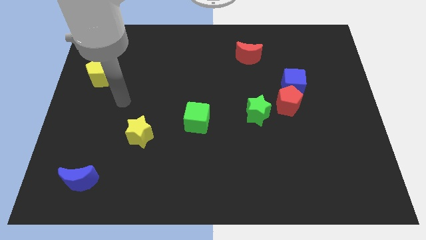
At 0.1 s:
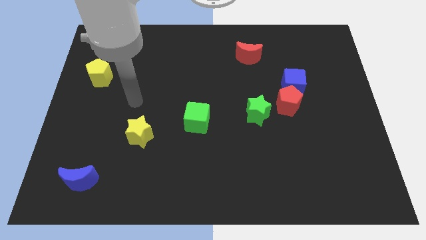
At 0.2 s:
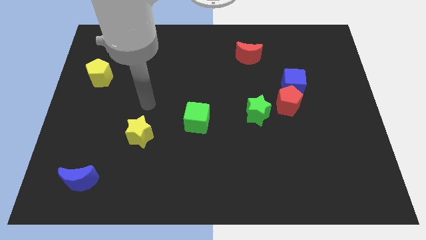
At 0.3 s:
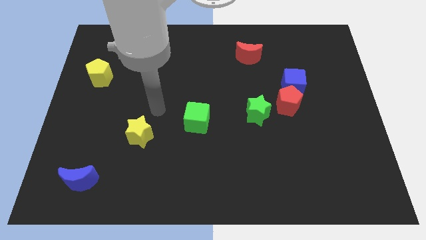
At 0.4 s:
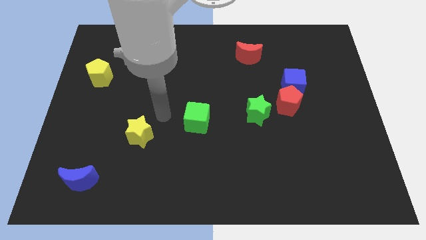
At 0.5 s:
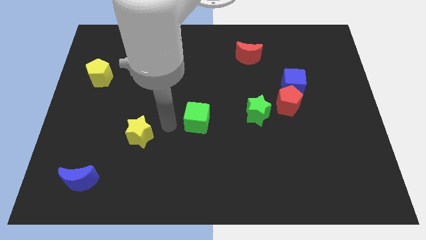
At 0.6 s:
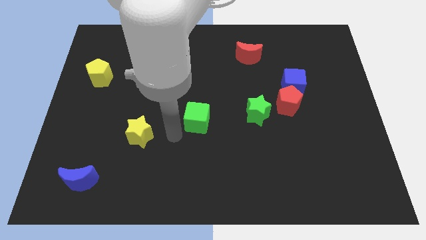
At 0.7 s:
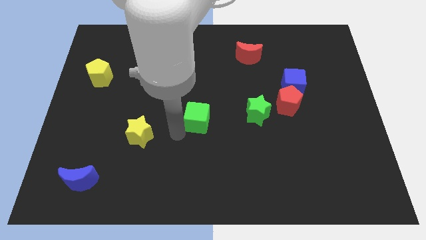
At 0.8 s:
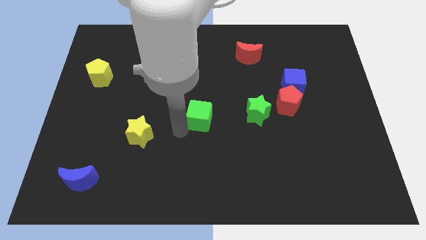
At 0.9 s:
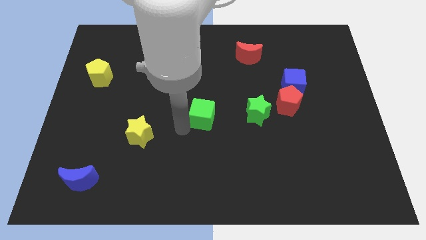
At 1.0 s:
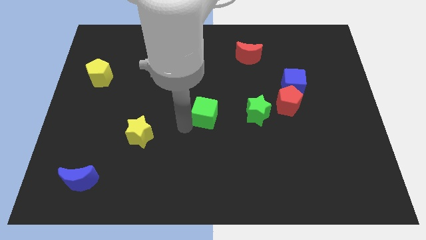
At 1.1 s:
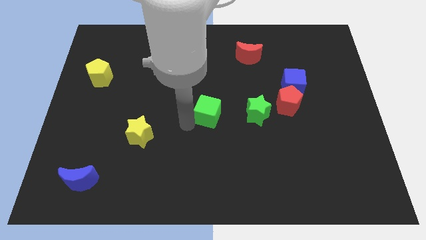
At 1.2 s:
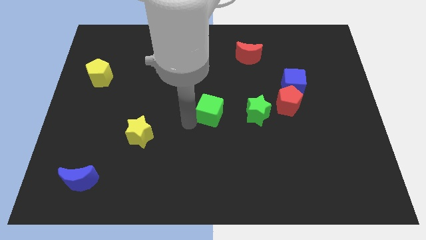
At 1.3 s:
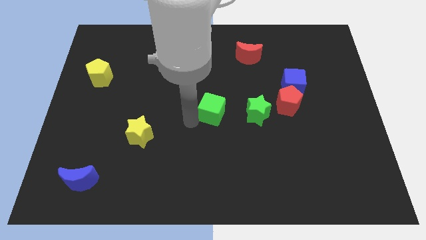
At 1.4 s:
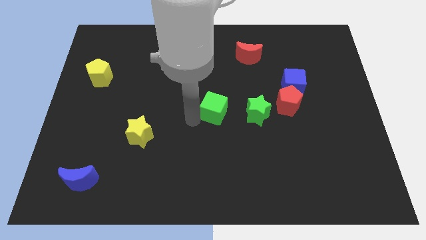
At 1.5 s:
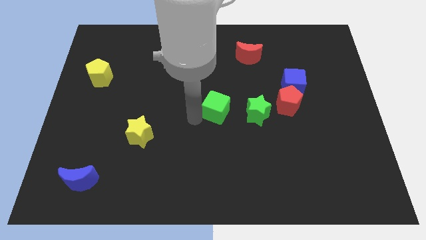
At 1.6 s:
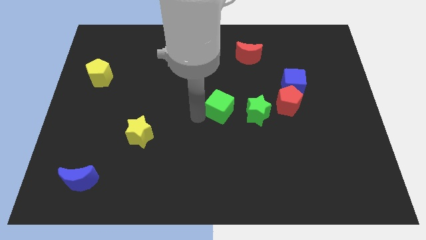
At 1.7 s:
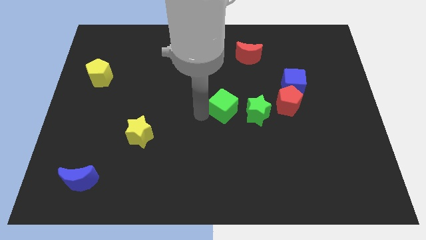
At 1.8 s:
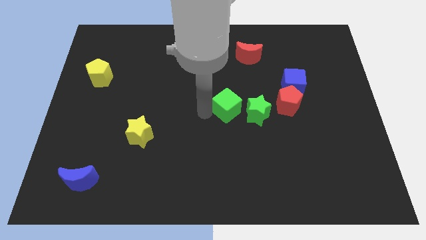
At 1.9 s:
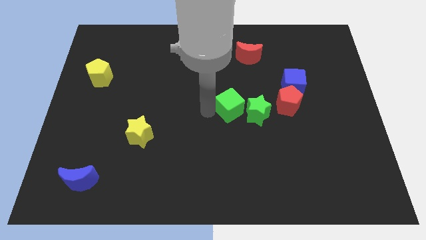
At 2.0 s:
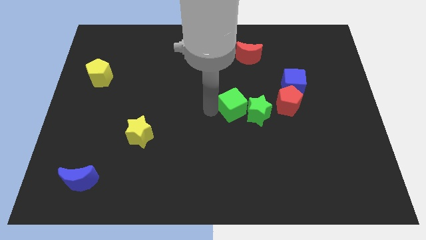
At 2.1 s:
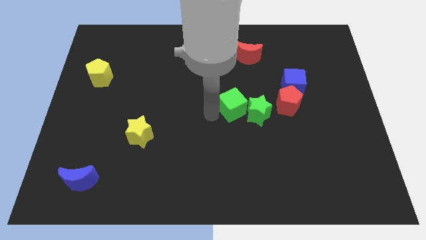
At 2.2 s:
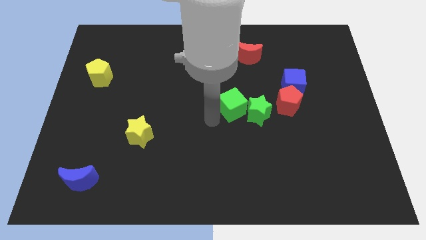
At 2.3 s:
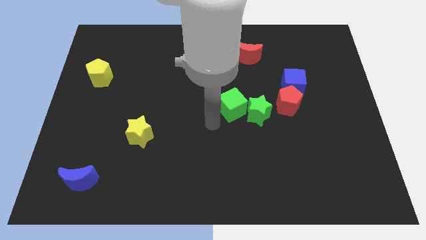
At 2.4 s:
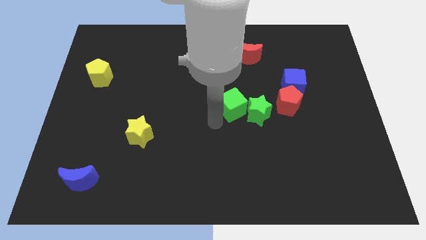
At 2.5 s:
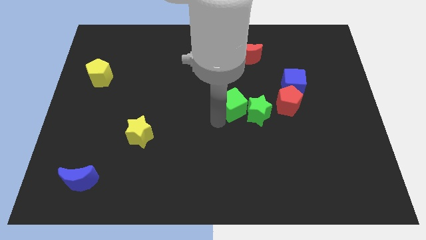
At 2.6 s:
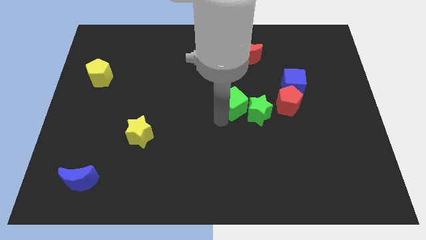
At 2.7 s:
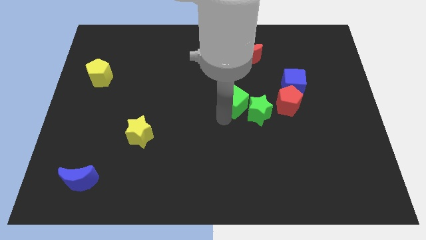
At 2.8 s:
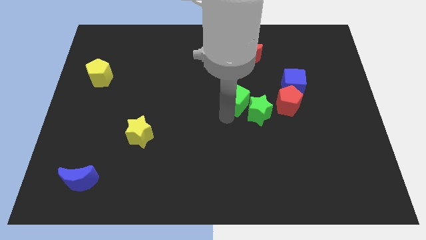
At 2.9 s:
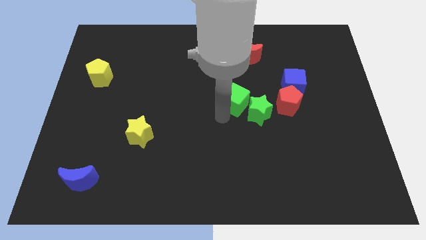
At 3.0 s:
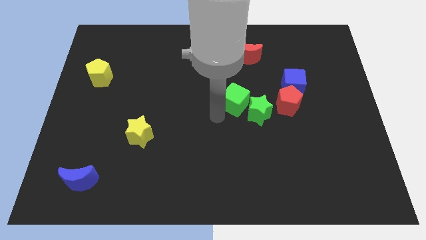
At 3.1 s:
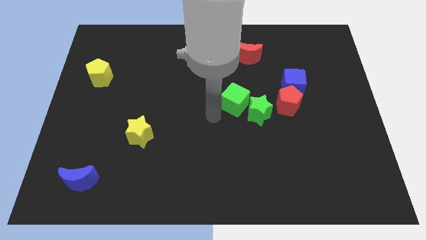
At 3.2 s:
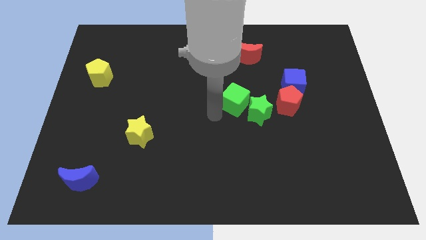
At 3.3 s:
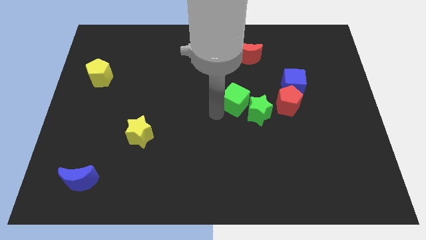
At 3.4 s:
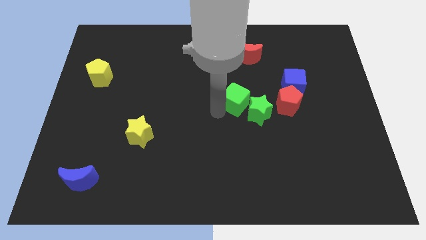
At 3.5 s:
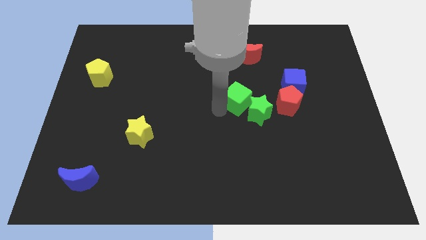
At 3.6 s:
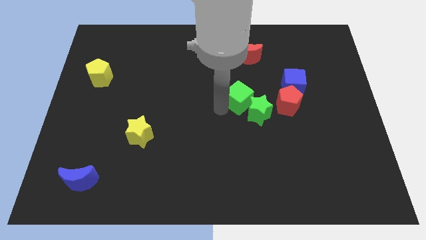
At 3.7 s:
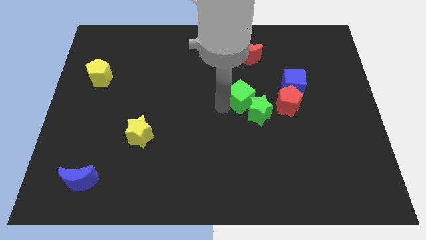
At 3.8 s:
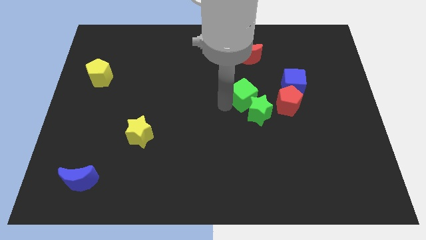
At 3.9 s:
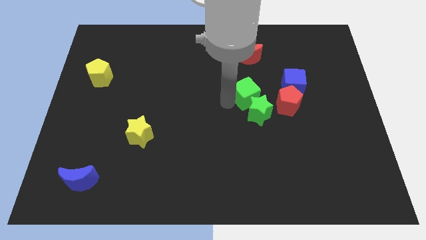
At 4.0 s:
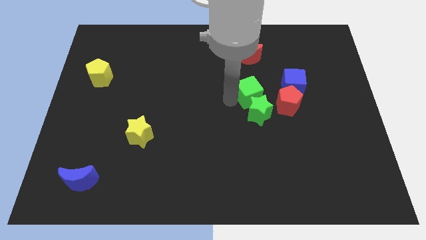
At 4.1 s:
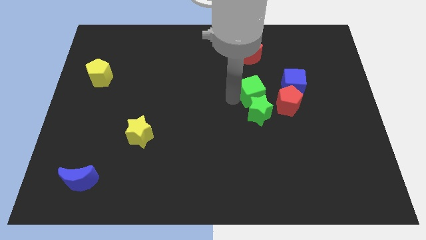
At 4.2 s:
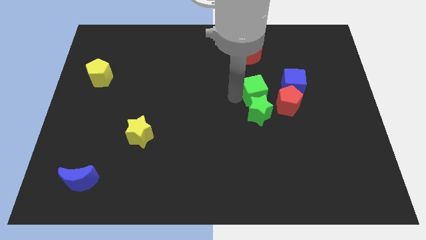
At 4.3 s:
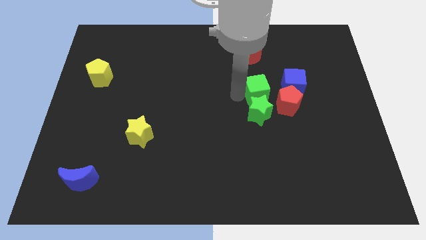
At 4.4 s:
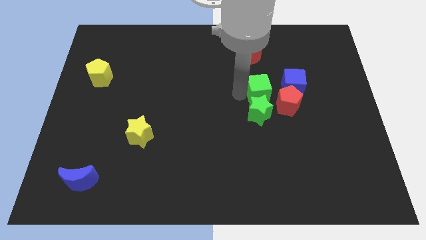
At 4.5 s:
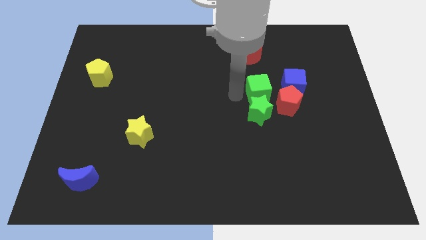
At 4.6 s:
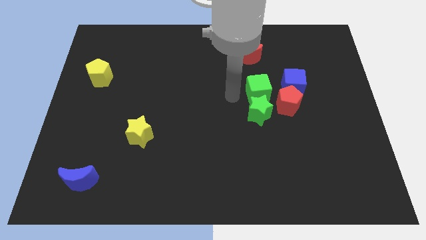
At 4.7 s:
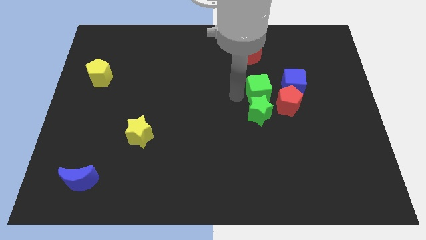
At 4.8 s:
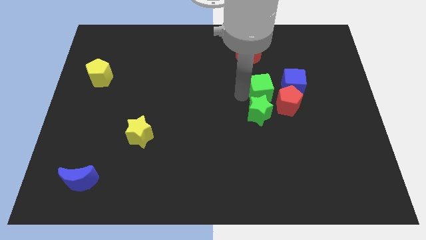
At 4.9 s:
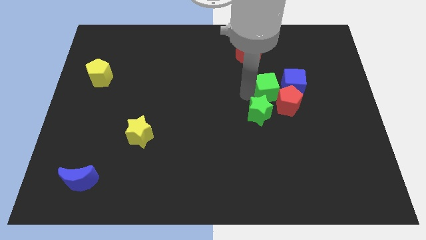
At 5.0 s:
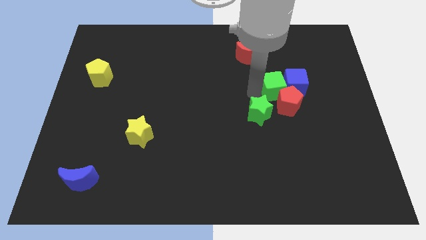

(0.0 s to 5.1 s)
slide the green cube next to the blue cube

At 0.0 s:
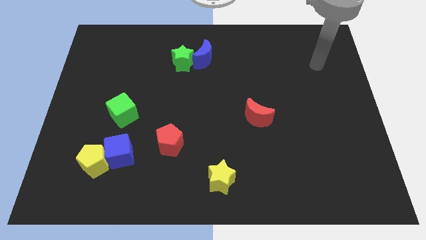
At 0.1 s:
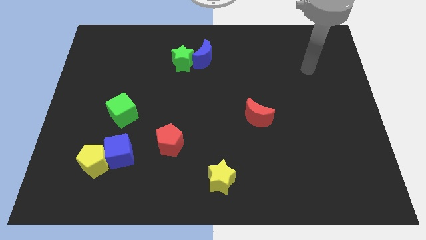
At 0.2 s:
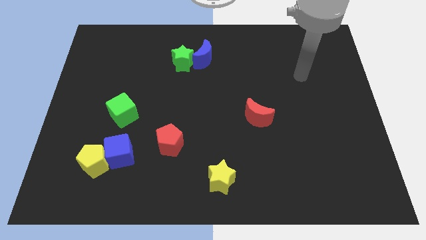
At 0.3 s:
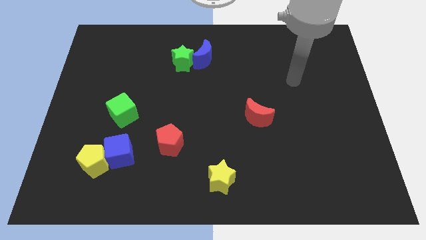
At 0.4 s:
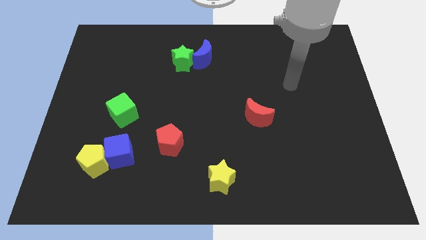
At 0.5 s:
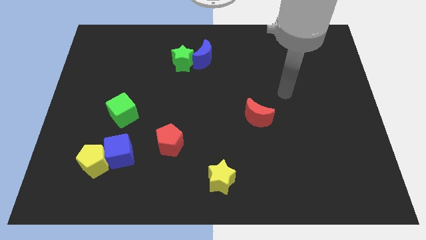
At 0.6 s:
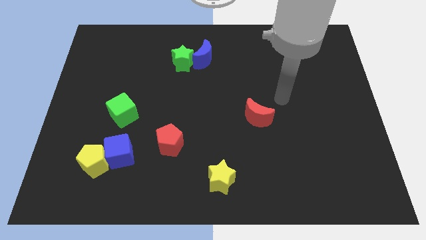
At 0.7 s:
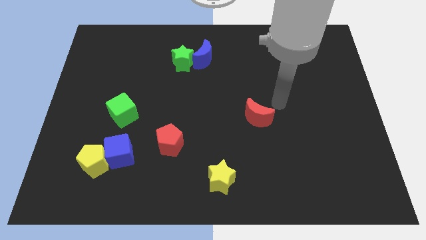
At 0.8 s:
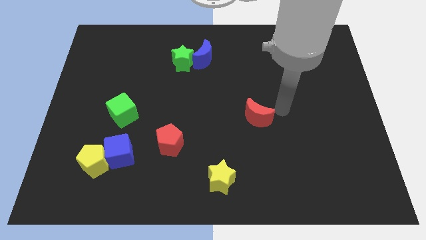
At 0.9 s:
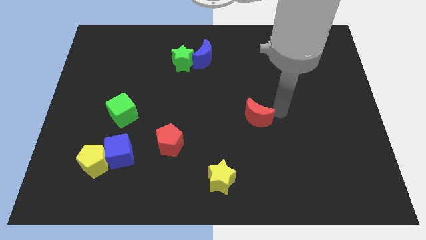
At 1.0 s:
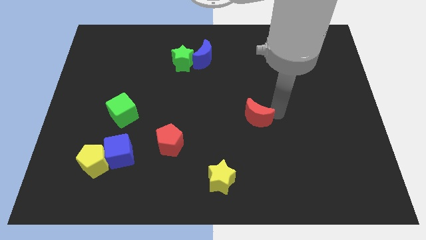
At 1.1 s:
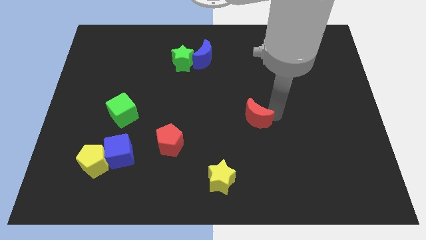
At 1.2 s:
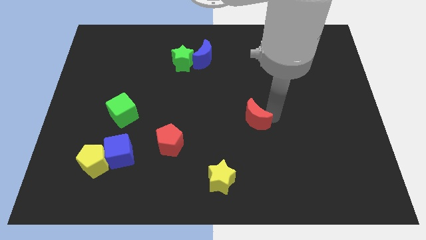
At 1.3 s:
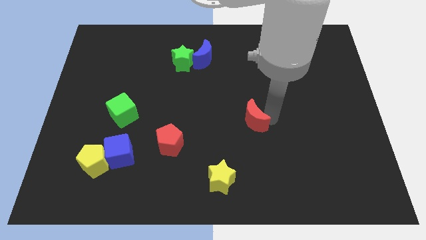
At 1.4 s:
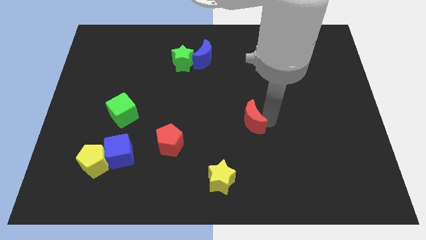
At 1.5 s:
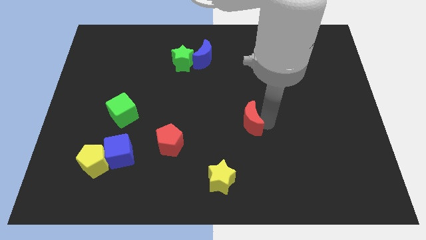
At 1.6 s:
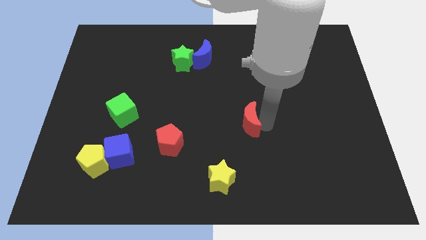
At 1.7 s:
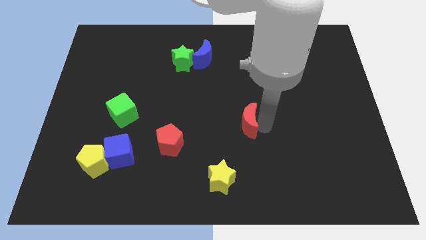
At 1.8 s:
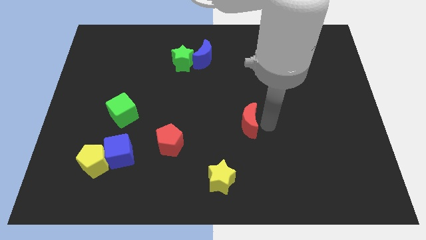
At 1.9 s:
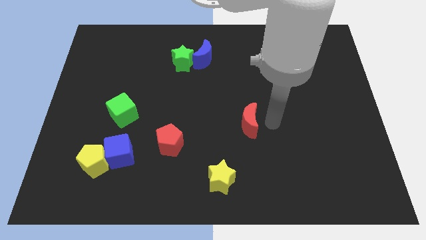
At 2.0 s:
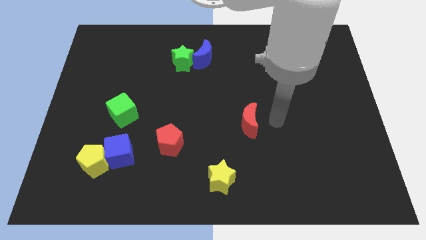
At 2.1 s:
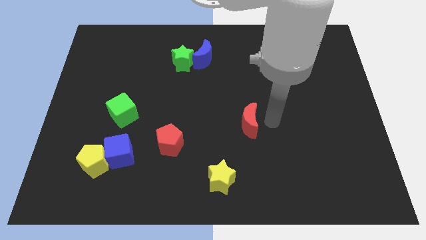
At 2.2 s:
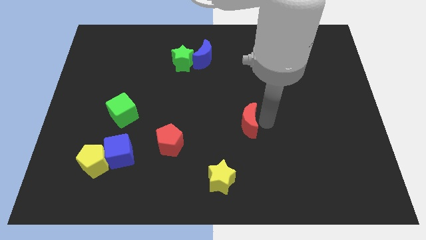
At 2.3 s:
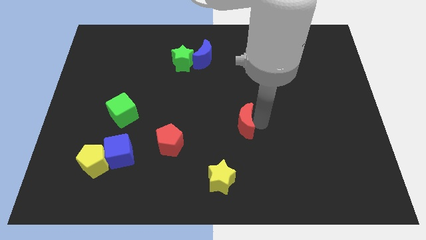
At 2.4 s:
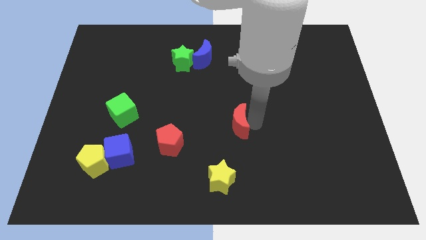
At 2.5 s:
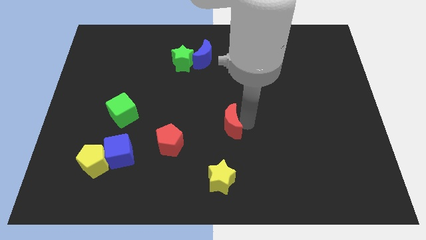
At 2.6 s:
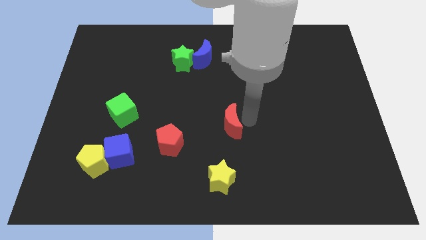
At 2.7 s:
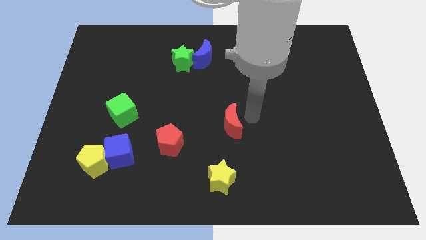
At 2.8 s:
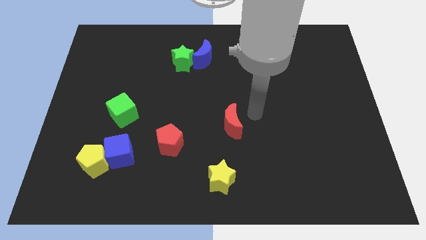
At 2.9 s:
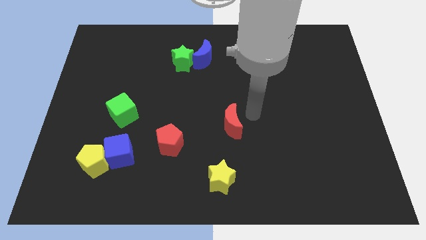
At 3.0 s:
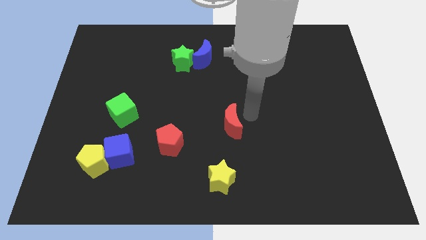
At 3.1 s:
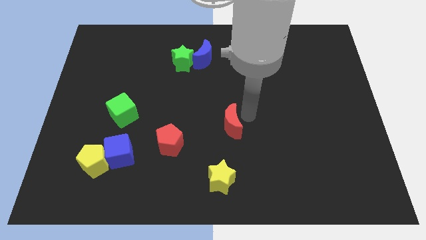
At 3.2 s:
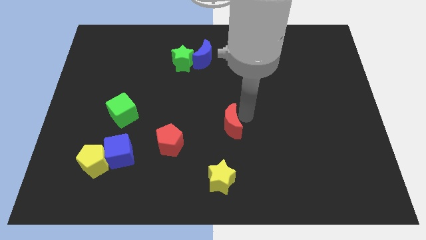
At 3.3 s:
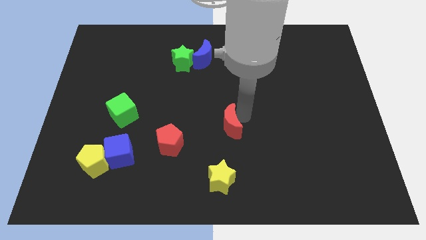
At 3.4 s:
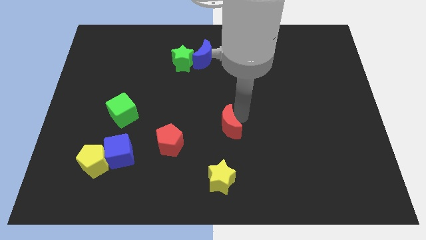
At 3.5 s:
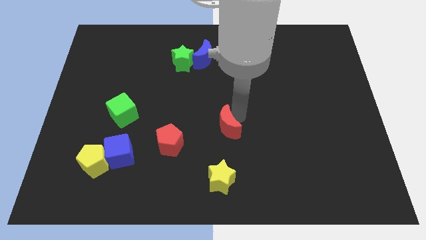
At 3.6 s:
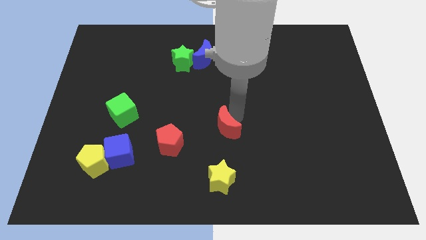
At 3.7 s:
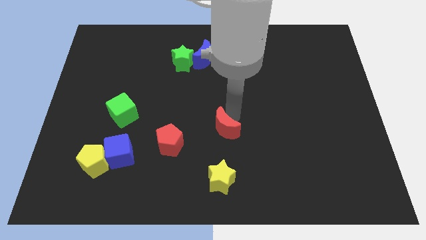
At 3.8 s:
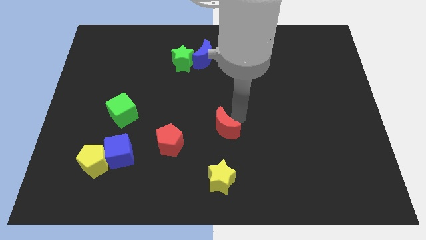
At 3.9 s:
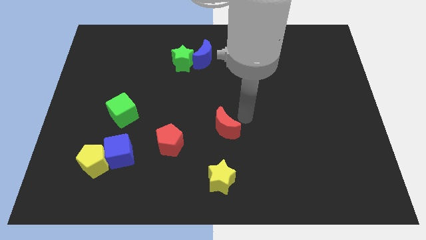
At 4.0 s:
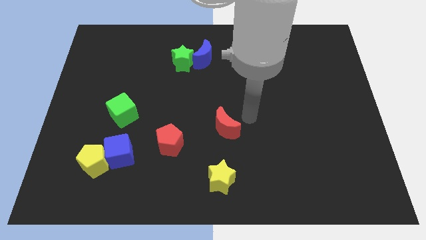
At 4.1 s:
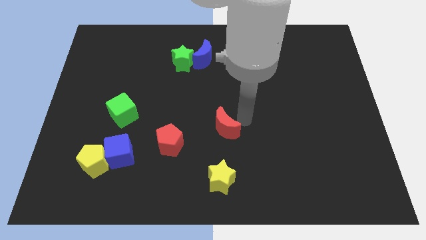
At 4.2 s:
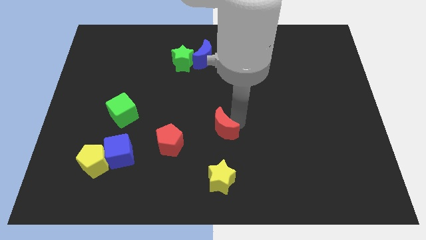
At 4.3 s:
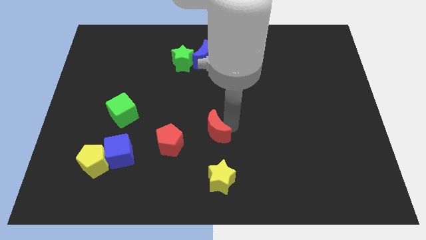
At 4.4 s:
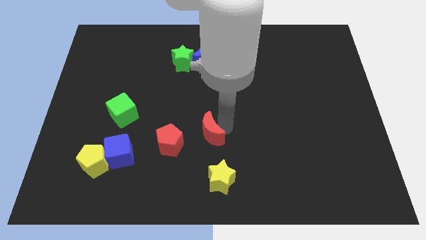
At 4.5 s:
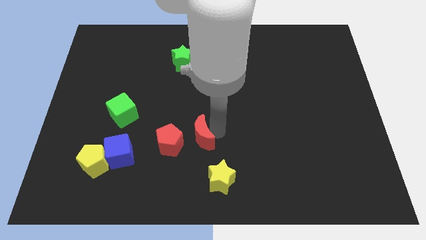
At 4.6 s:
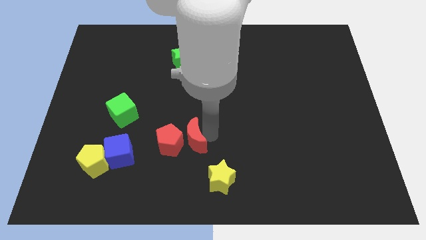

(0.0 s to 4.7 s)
move the red moon towards the red pentagon
